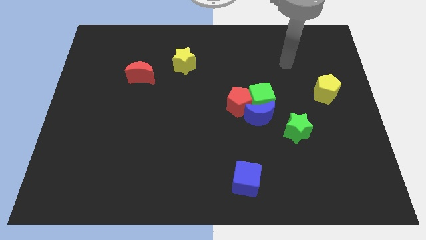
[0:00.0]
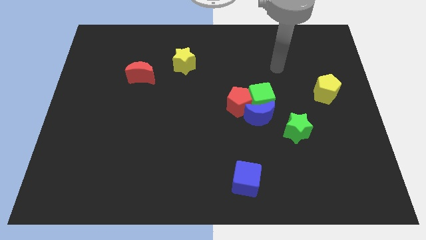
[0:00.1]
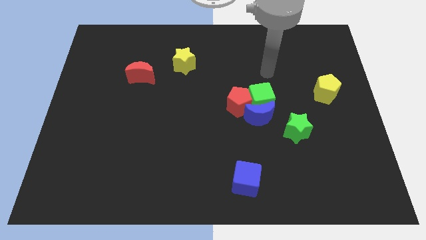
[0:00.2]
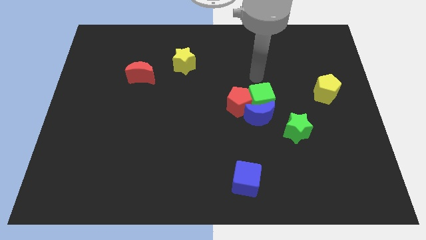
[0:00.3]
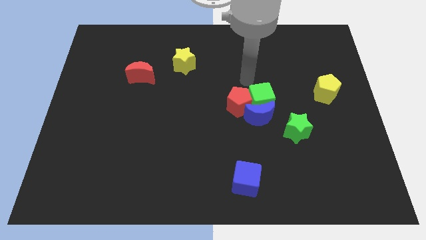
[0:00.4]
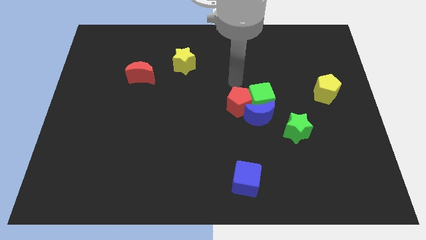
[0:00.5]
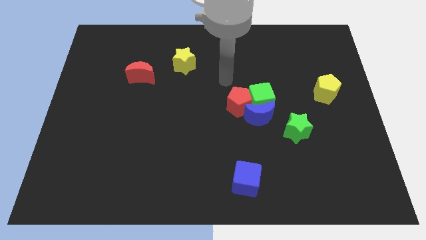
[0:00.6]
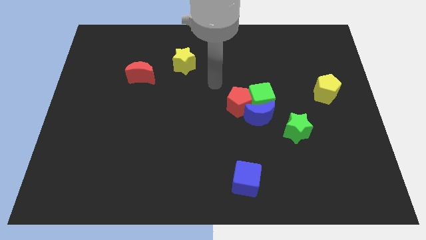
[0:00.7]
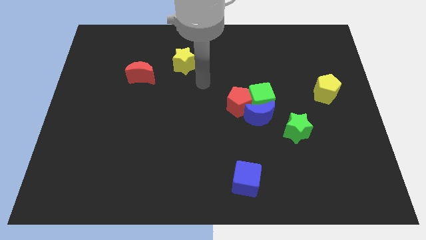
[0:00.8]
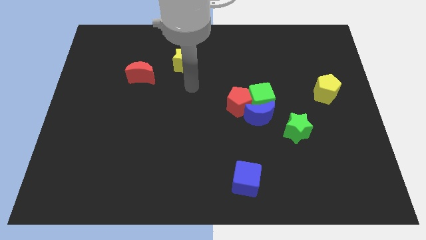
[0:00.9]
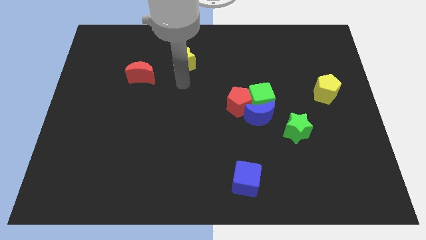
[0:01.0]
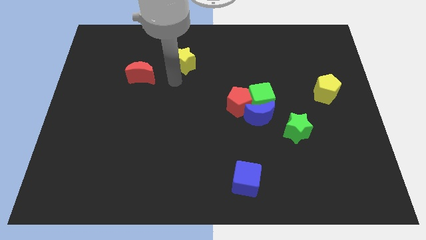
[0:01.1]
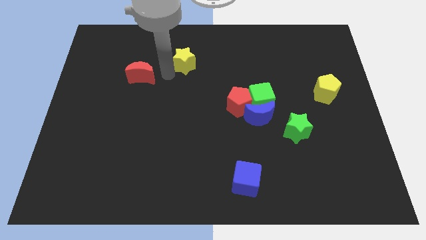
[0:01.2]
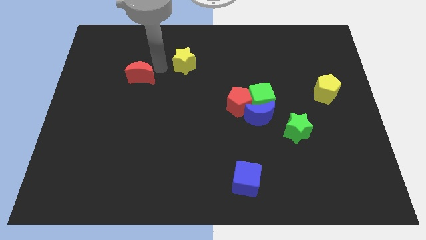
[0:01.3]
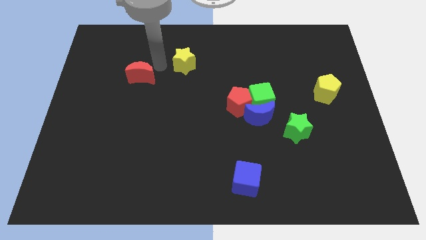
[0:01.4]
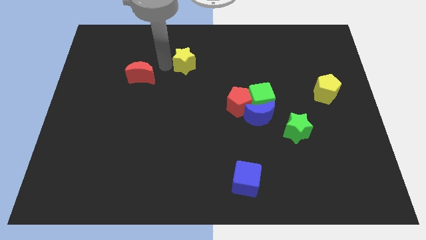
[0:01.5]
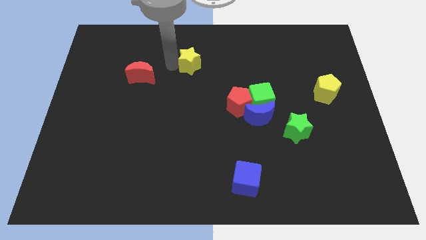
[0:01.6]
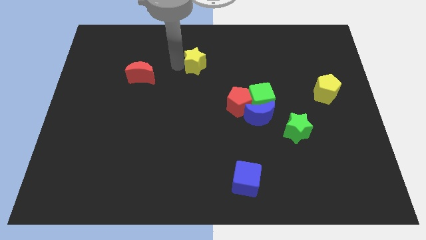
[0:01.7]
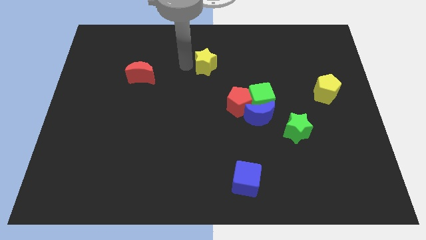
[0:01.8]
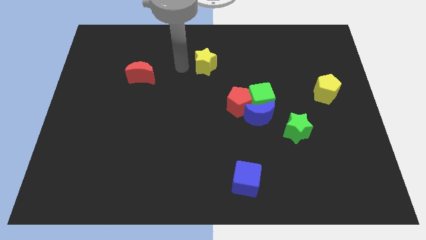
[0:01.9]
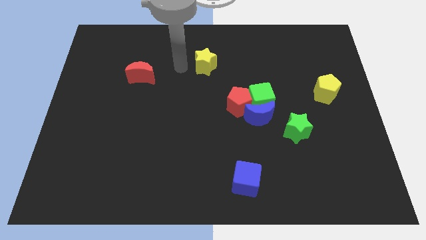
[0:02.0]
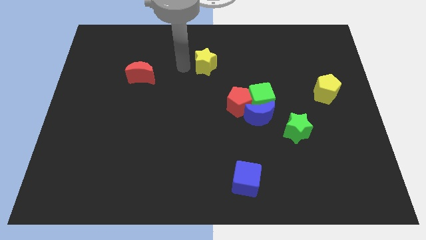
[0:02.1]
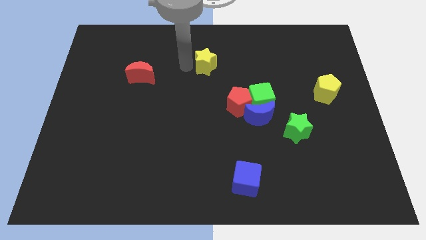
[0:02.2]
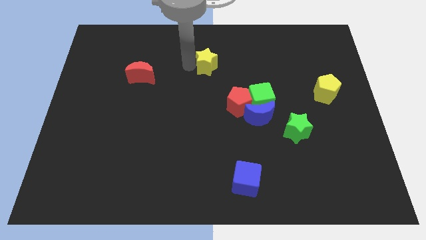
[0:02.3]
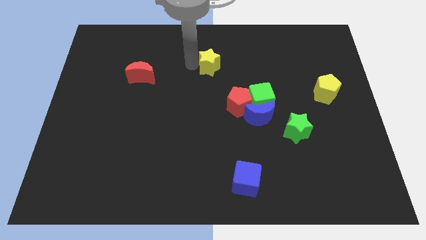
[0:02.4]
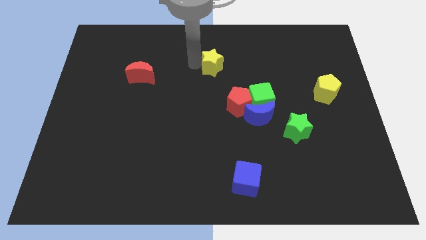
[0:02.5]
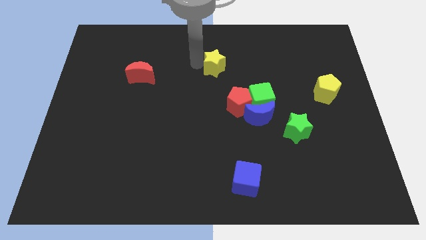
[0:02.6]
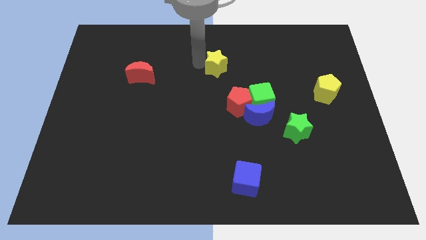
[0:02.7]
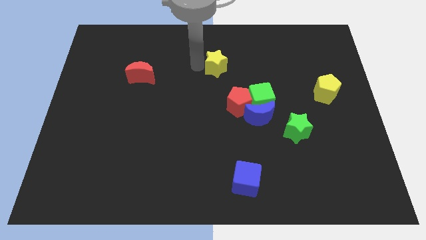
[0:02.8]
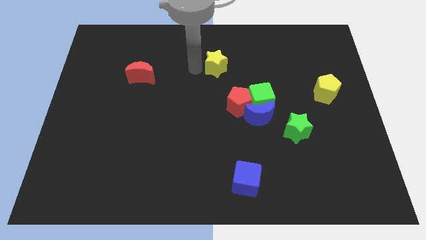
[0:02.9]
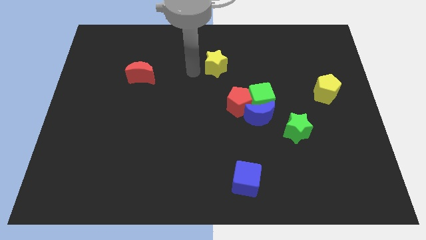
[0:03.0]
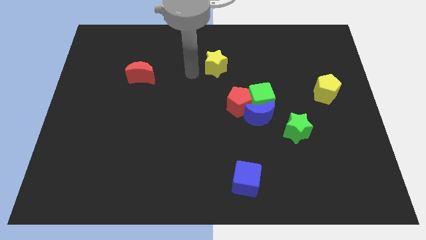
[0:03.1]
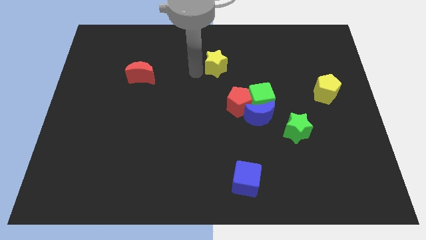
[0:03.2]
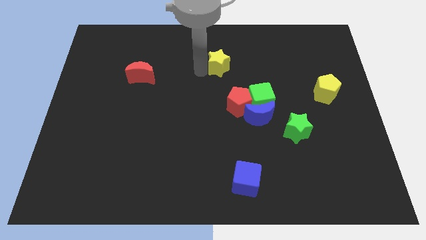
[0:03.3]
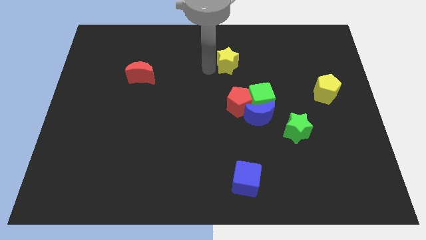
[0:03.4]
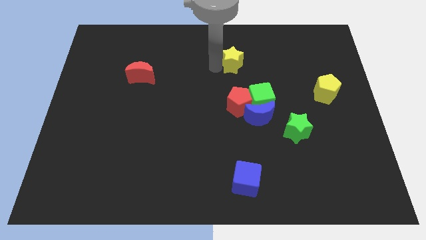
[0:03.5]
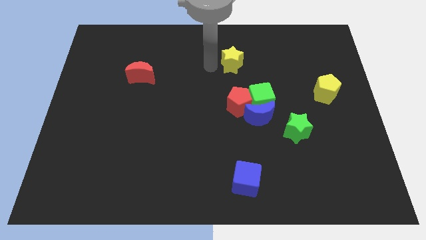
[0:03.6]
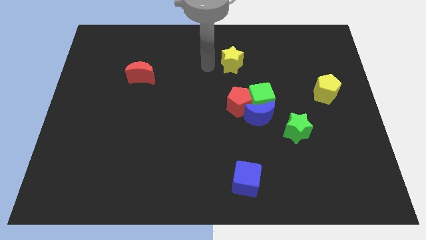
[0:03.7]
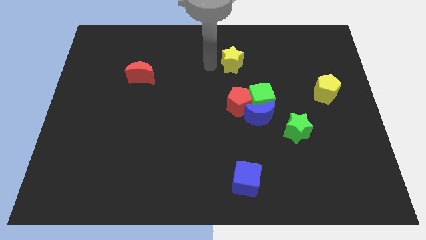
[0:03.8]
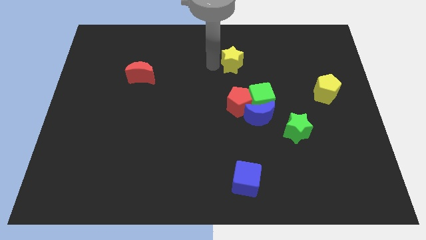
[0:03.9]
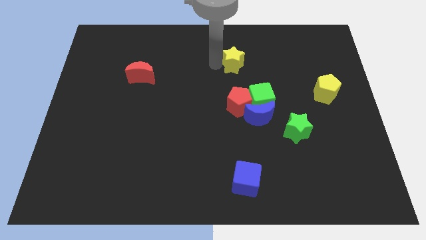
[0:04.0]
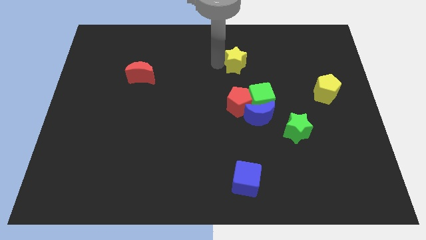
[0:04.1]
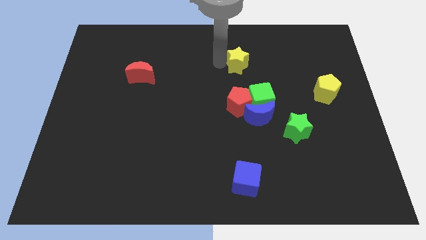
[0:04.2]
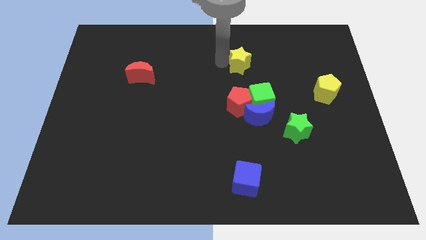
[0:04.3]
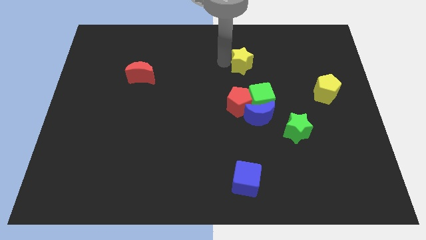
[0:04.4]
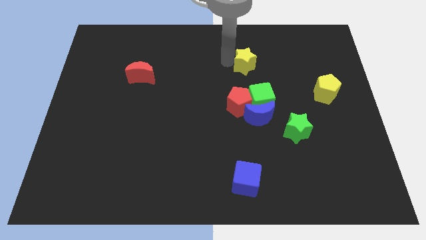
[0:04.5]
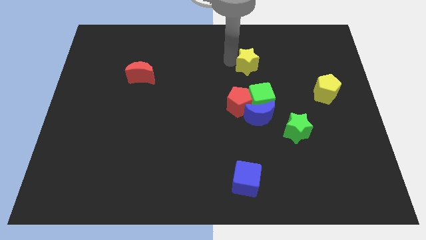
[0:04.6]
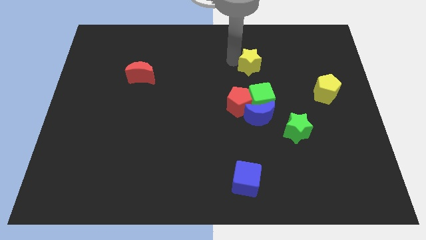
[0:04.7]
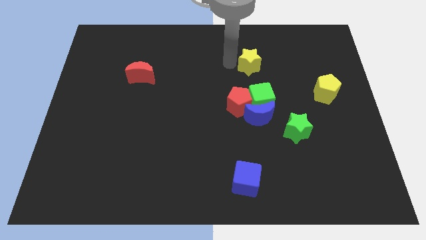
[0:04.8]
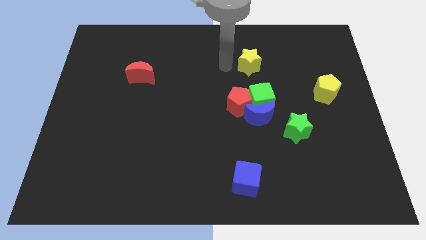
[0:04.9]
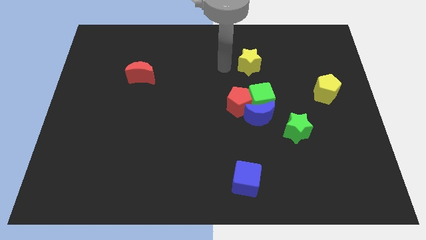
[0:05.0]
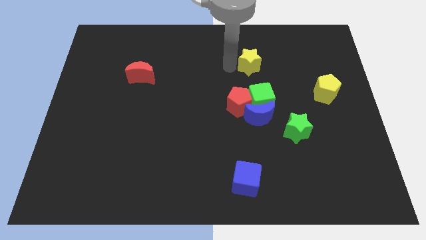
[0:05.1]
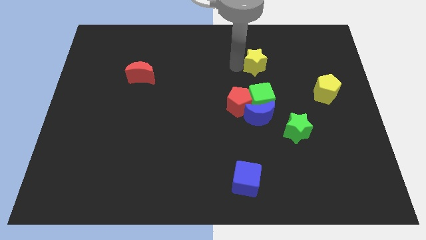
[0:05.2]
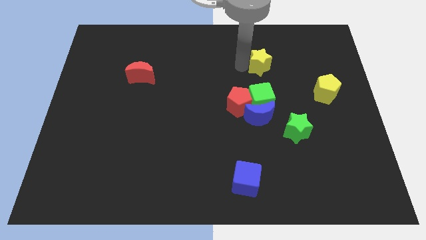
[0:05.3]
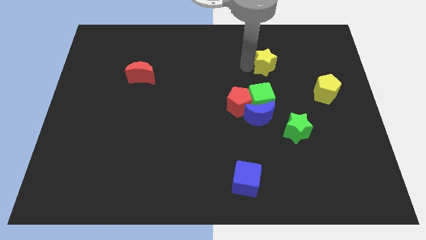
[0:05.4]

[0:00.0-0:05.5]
push the yellow star right

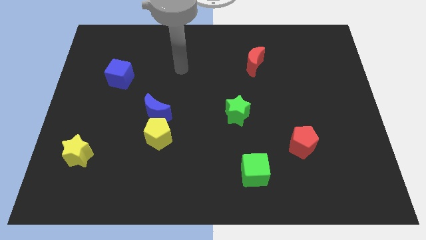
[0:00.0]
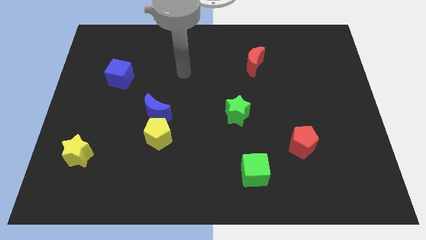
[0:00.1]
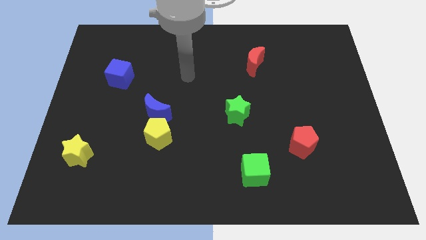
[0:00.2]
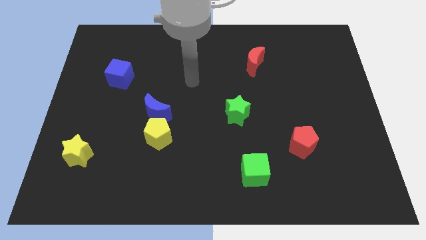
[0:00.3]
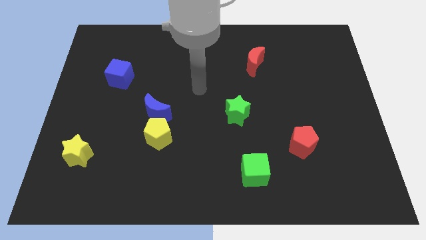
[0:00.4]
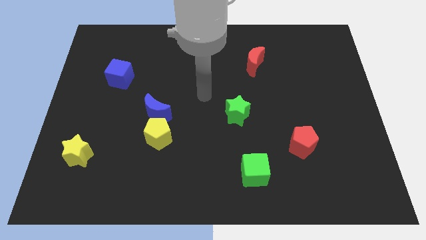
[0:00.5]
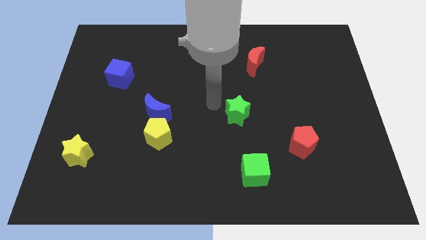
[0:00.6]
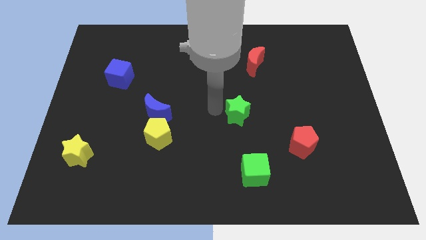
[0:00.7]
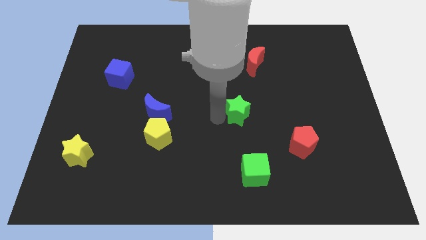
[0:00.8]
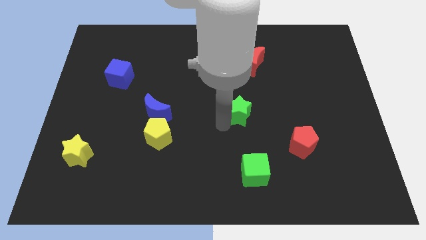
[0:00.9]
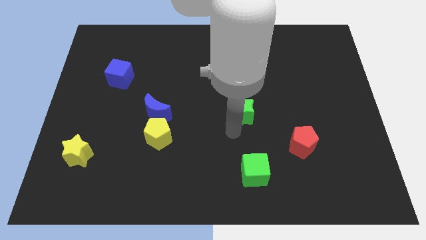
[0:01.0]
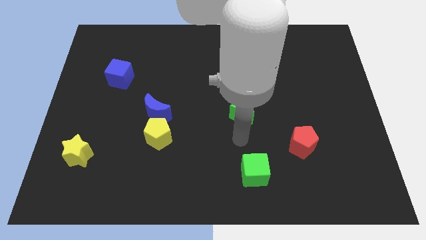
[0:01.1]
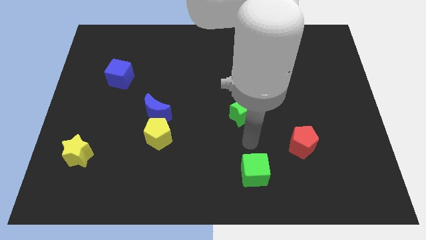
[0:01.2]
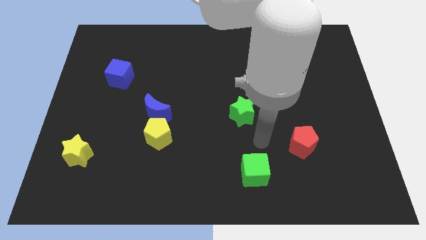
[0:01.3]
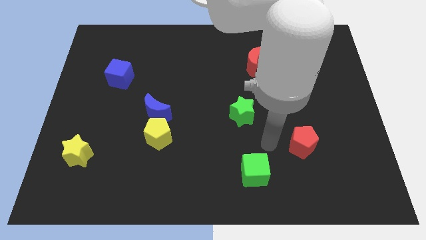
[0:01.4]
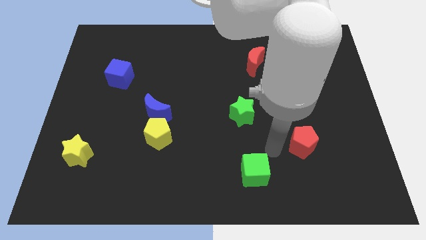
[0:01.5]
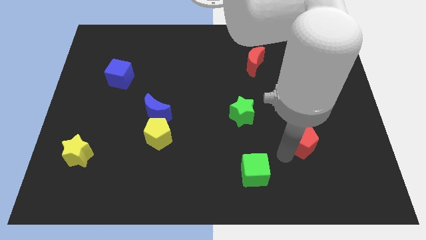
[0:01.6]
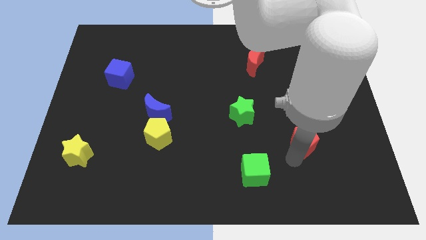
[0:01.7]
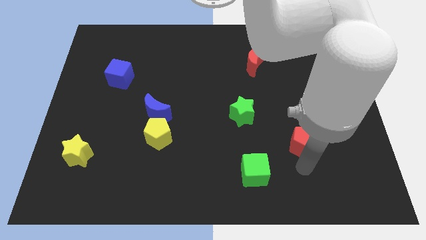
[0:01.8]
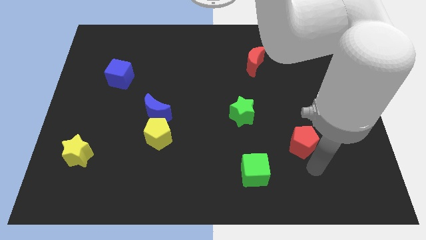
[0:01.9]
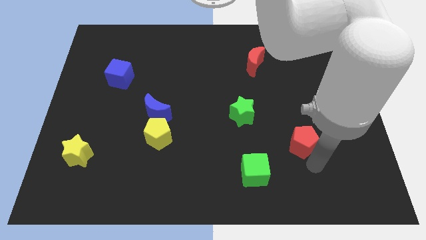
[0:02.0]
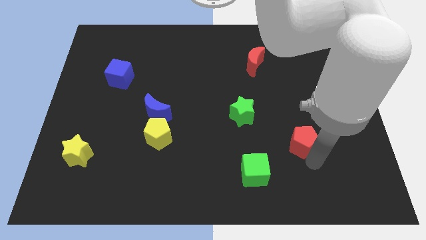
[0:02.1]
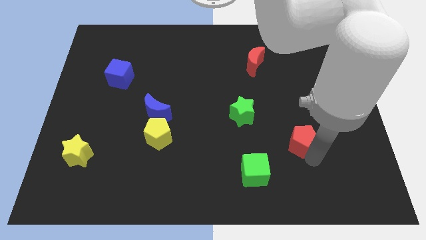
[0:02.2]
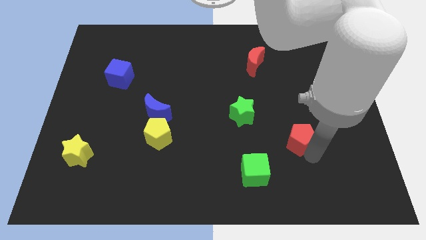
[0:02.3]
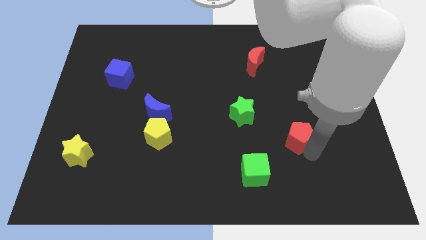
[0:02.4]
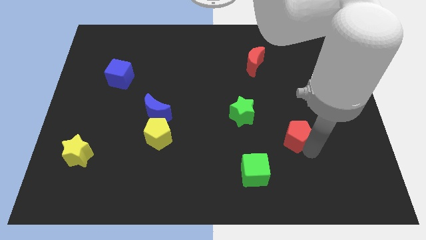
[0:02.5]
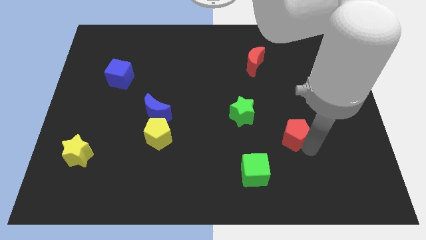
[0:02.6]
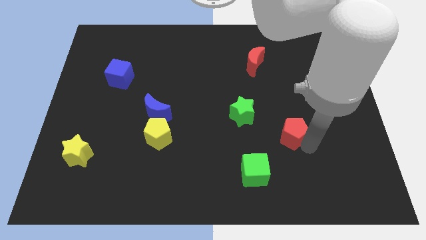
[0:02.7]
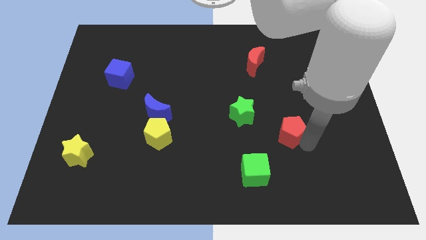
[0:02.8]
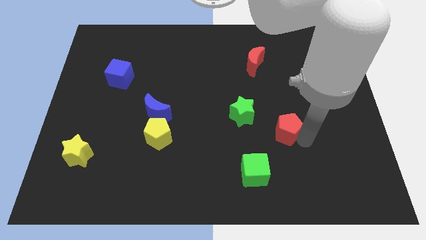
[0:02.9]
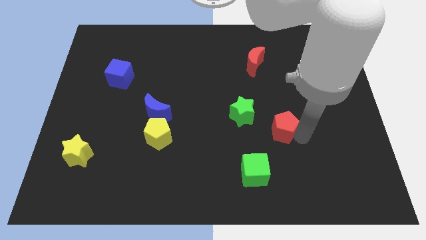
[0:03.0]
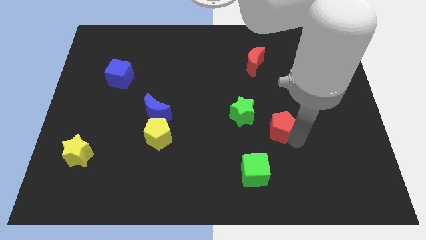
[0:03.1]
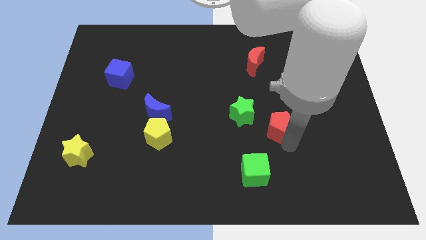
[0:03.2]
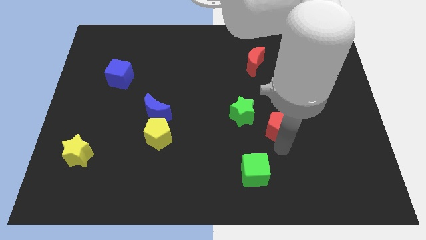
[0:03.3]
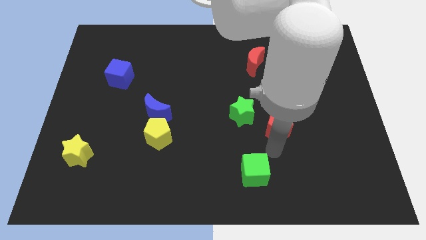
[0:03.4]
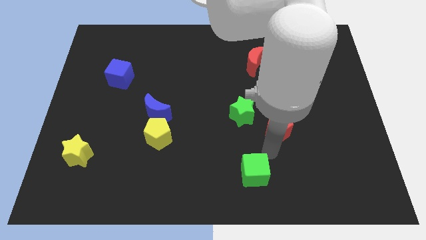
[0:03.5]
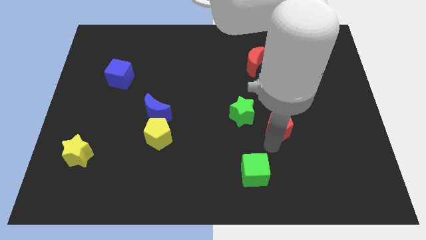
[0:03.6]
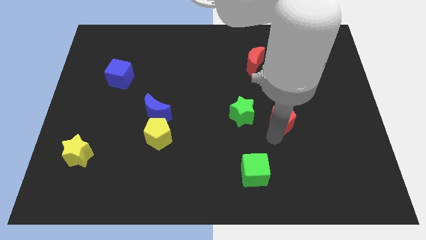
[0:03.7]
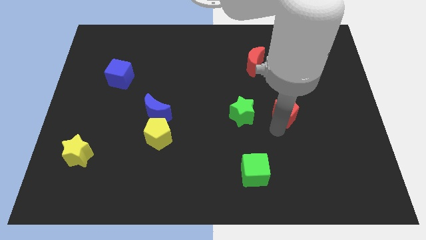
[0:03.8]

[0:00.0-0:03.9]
slide the red pentagon a little upwards
